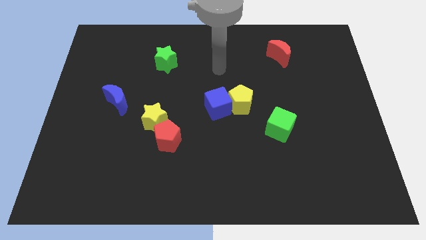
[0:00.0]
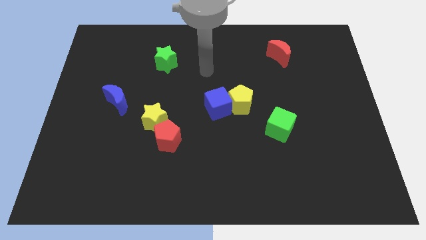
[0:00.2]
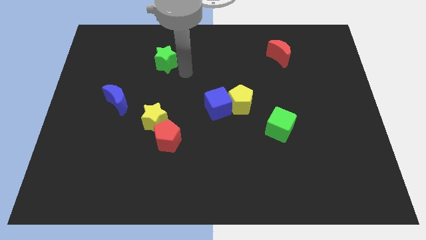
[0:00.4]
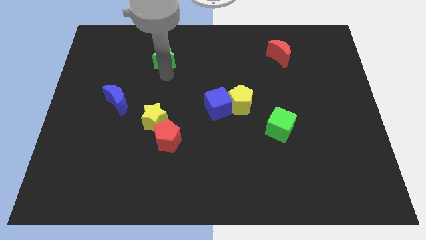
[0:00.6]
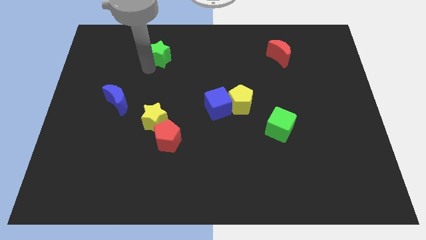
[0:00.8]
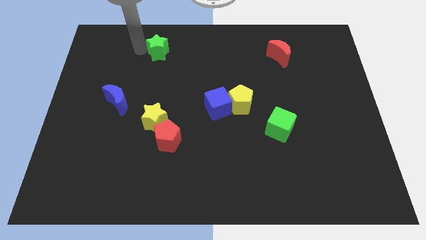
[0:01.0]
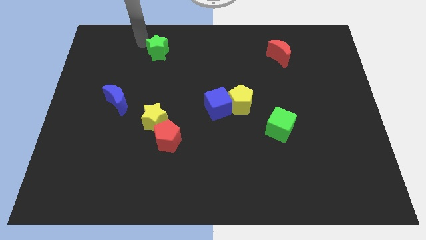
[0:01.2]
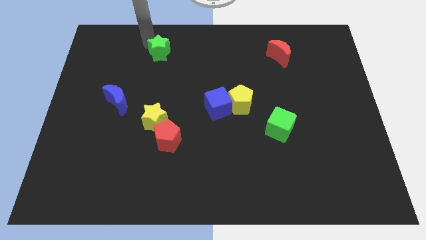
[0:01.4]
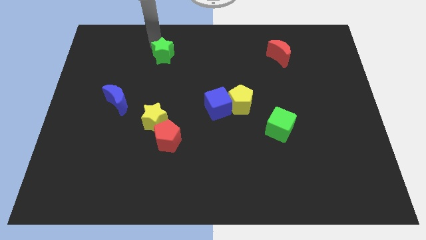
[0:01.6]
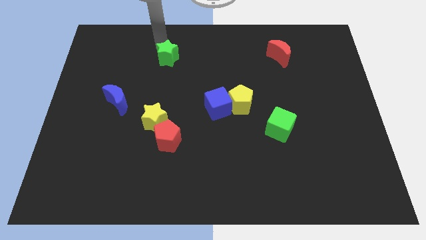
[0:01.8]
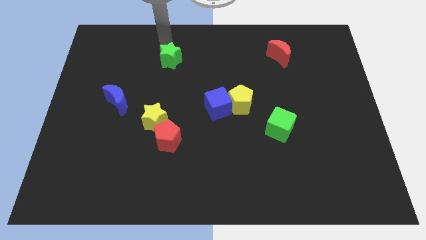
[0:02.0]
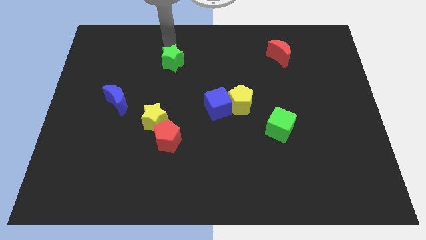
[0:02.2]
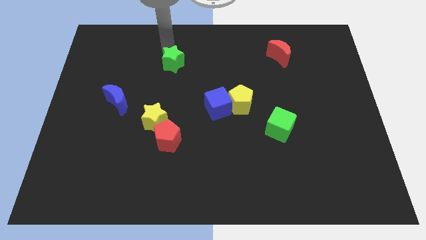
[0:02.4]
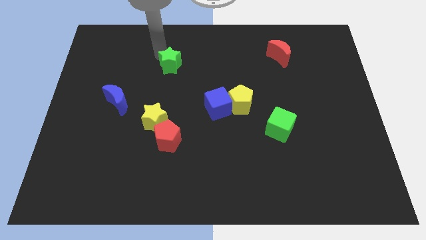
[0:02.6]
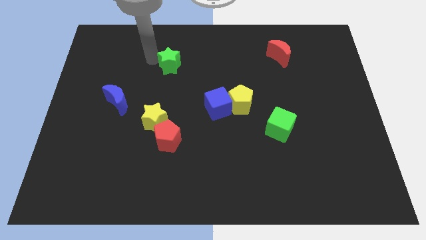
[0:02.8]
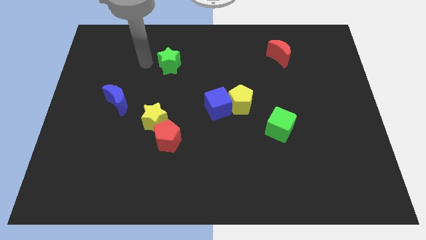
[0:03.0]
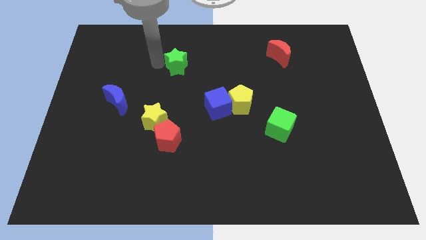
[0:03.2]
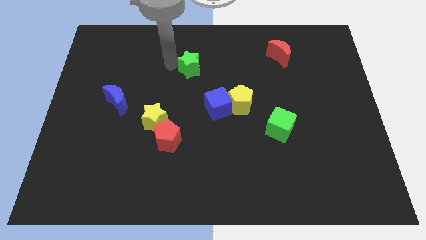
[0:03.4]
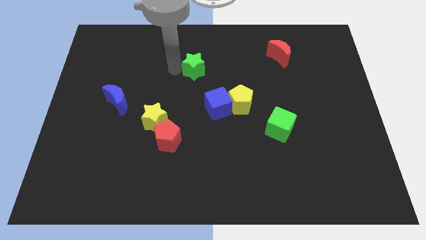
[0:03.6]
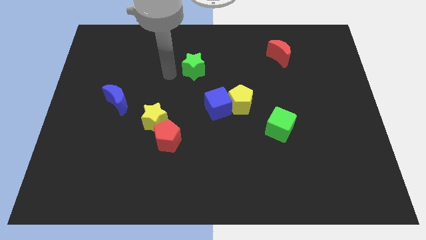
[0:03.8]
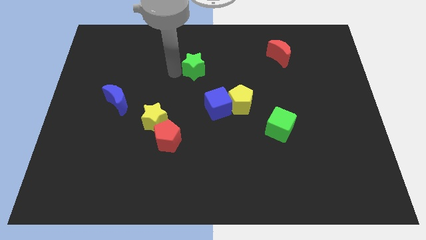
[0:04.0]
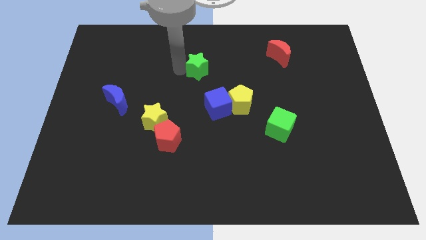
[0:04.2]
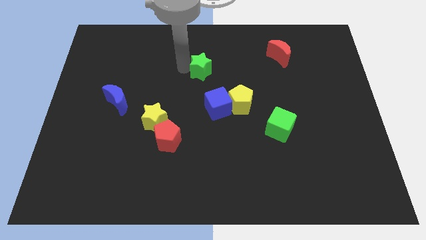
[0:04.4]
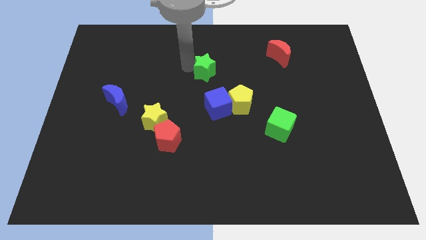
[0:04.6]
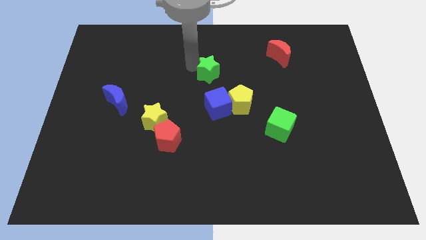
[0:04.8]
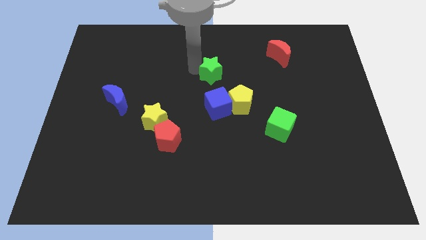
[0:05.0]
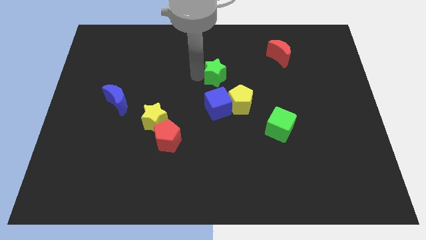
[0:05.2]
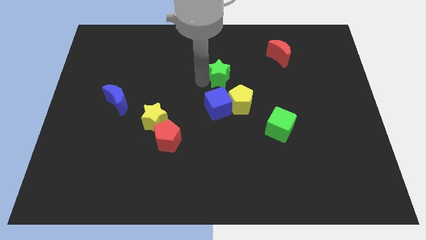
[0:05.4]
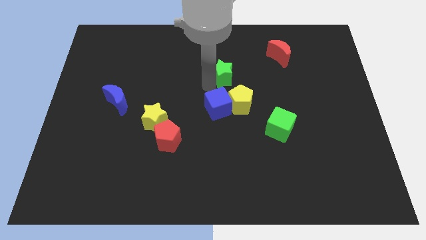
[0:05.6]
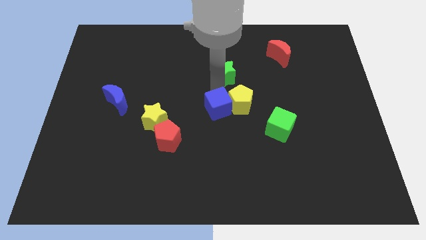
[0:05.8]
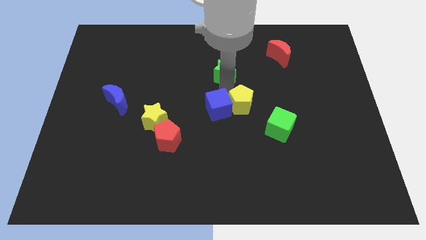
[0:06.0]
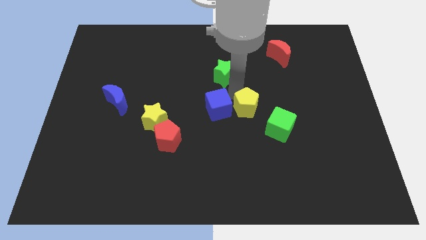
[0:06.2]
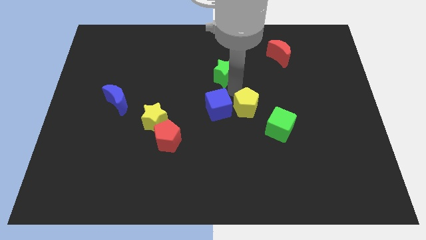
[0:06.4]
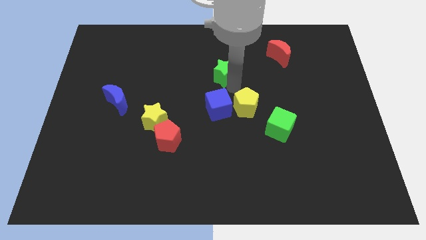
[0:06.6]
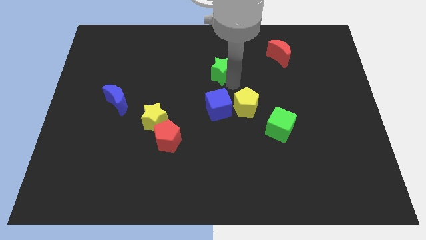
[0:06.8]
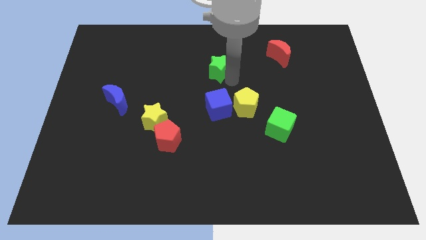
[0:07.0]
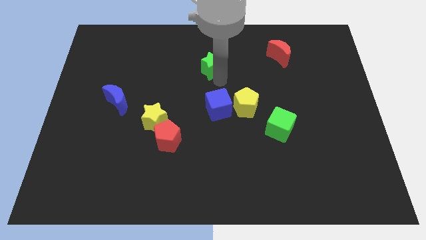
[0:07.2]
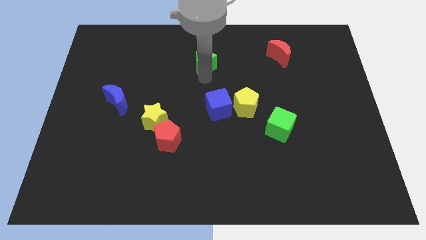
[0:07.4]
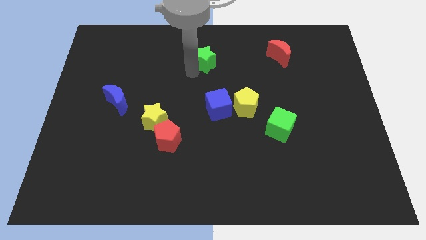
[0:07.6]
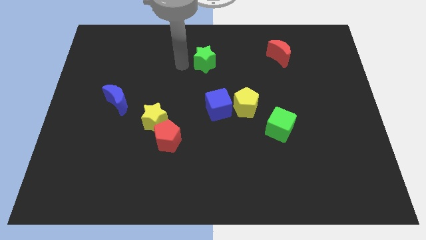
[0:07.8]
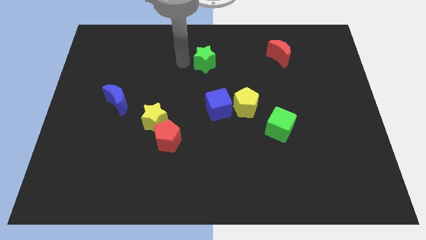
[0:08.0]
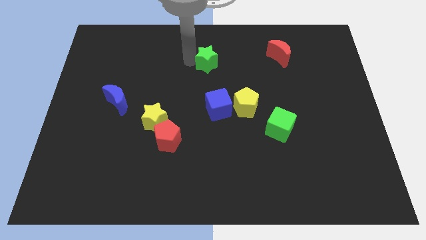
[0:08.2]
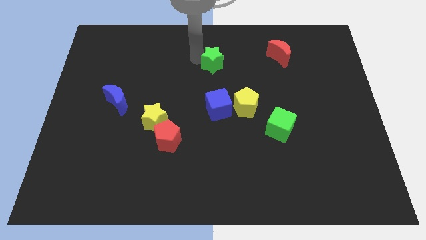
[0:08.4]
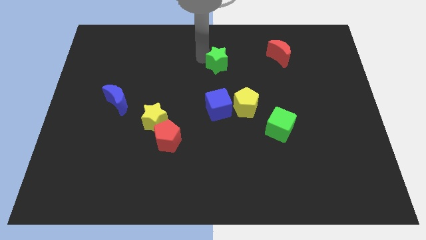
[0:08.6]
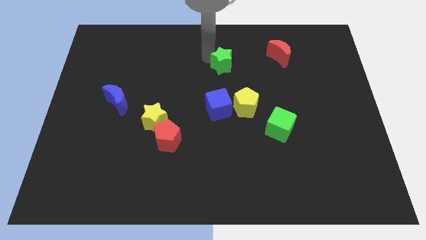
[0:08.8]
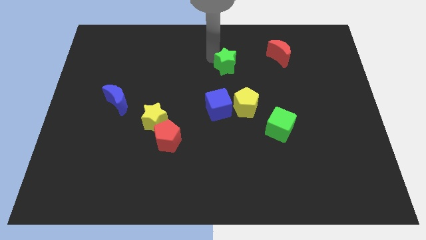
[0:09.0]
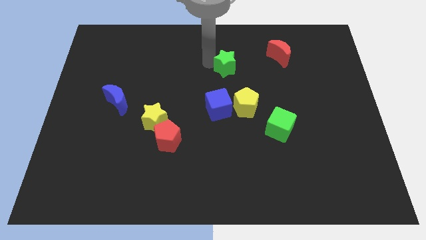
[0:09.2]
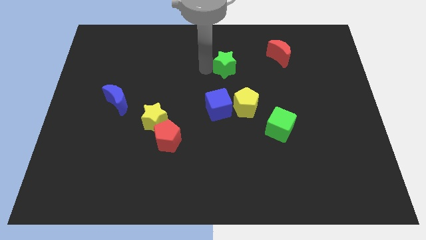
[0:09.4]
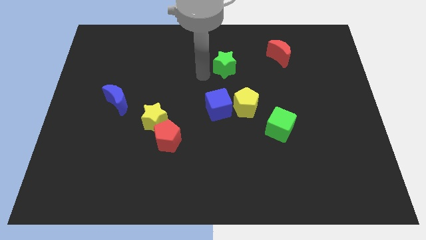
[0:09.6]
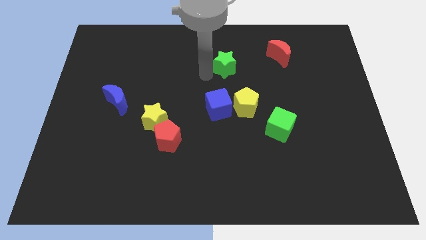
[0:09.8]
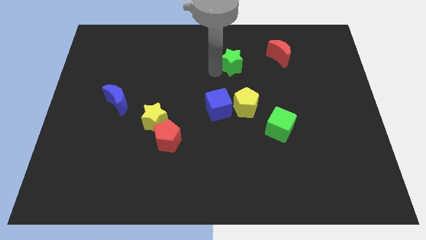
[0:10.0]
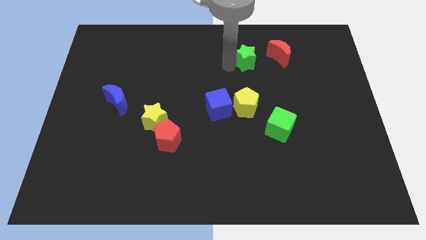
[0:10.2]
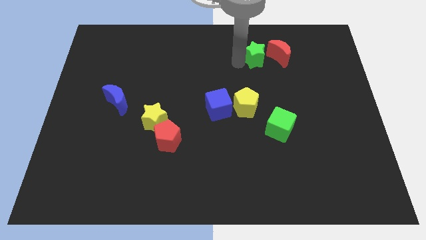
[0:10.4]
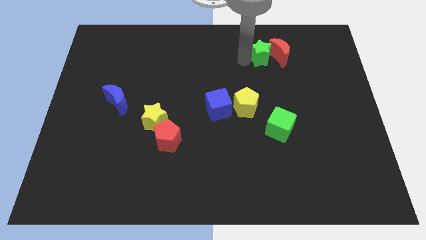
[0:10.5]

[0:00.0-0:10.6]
move the green star next to the red moon

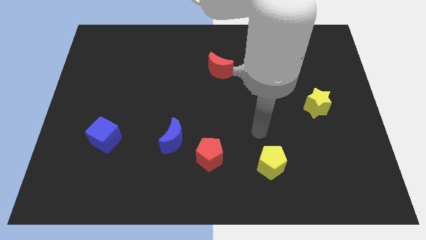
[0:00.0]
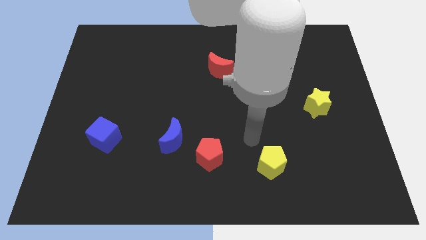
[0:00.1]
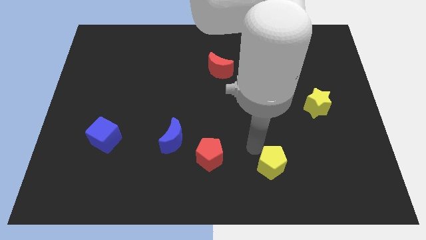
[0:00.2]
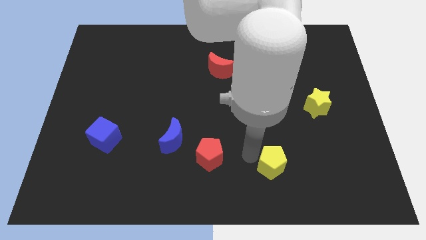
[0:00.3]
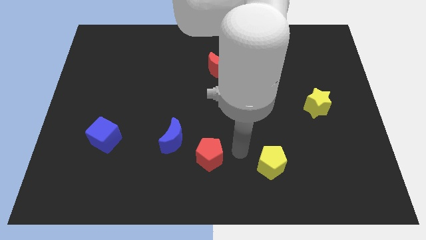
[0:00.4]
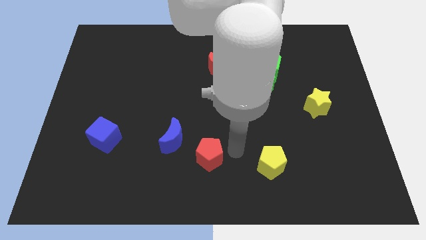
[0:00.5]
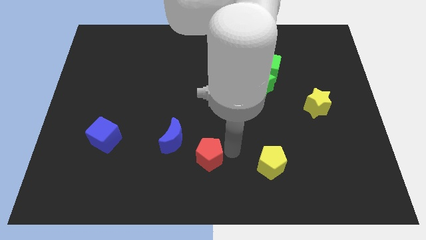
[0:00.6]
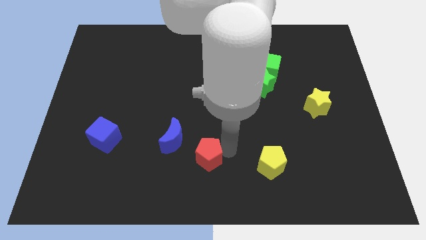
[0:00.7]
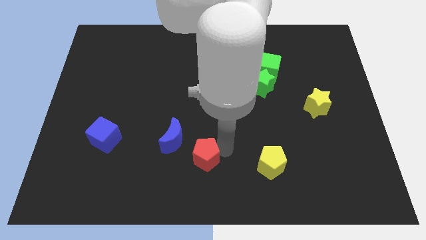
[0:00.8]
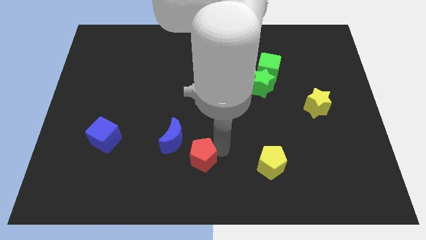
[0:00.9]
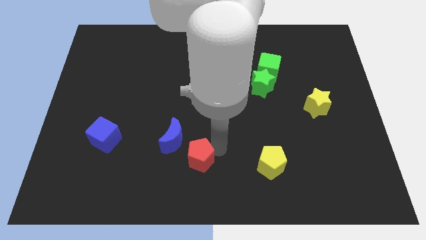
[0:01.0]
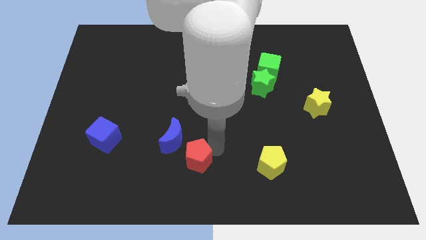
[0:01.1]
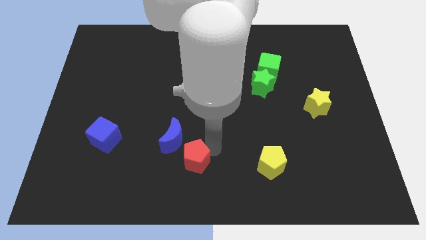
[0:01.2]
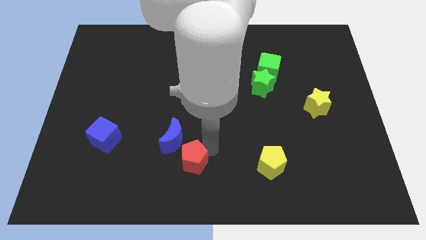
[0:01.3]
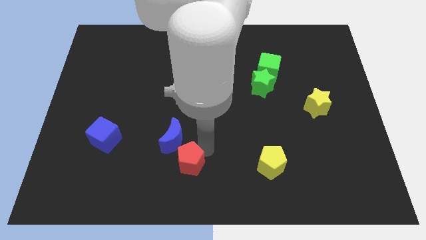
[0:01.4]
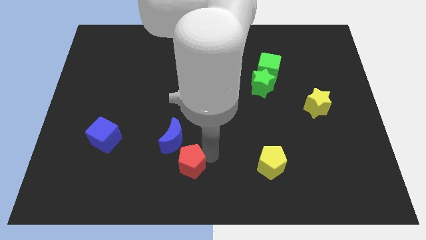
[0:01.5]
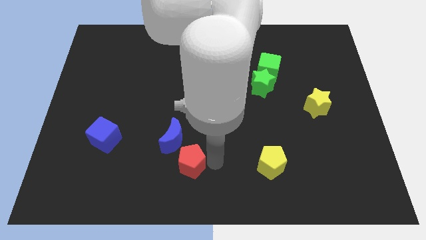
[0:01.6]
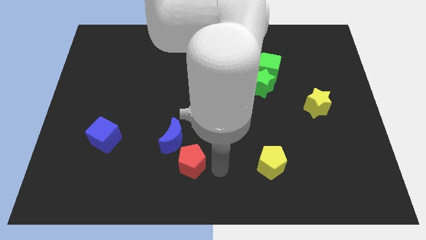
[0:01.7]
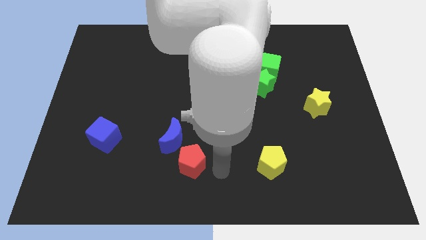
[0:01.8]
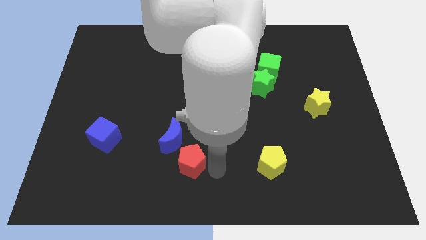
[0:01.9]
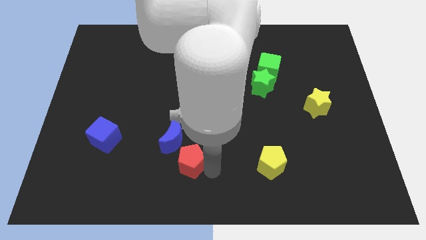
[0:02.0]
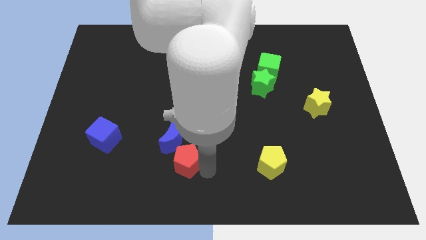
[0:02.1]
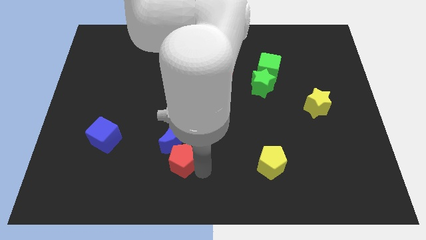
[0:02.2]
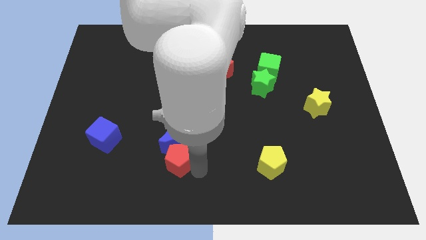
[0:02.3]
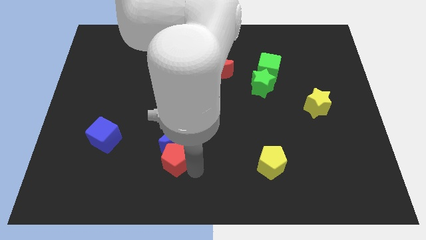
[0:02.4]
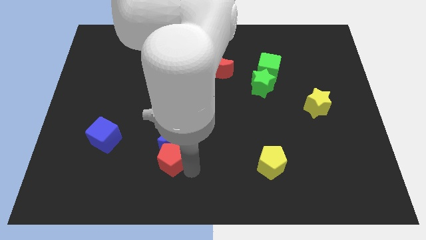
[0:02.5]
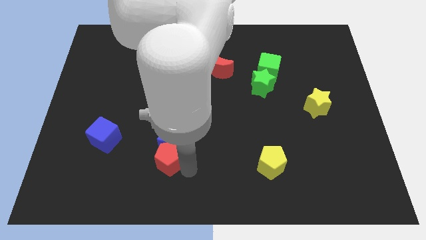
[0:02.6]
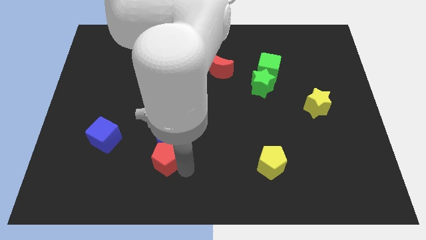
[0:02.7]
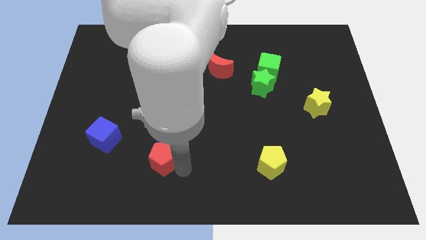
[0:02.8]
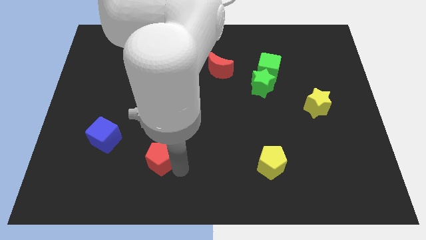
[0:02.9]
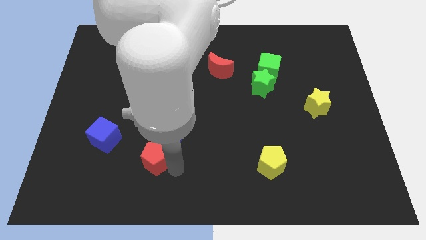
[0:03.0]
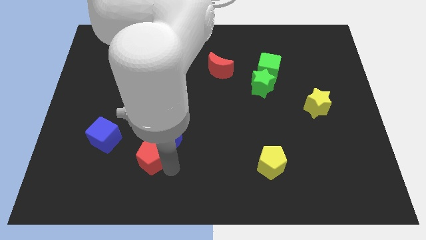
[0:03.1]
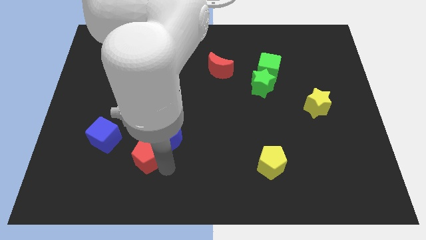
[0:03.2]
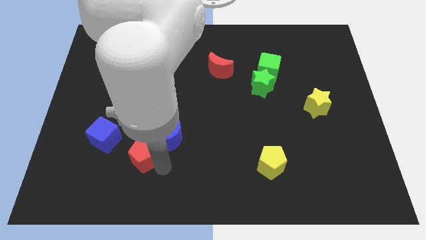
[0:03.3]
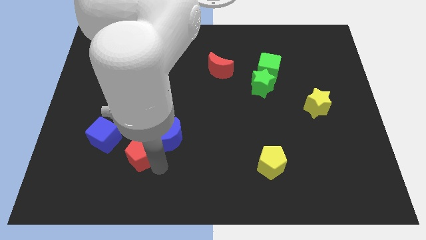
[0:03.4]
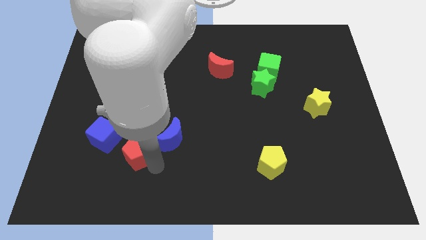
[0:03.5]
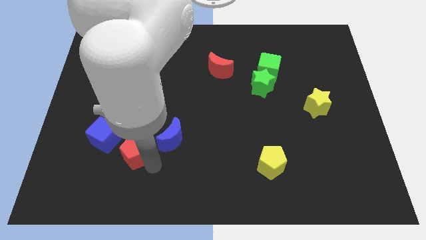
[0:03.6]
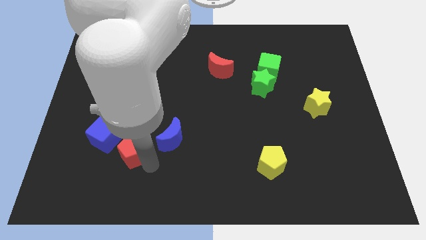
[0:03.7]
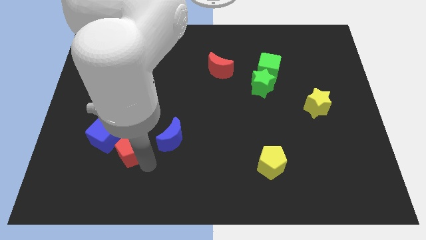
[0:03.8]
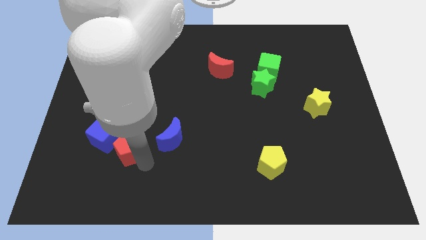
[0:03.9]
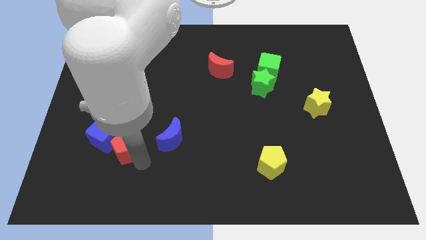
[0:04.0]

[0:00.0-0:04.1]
push the red pentagon towards the blue cube
